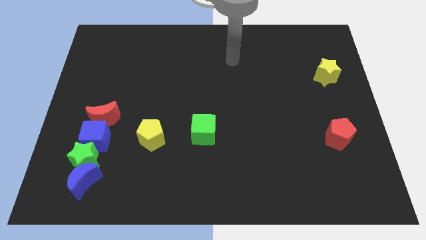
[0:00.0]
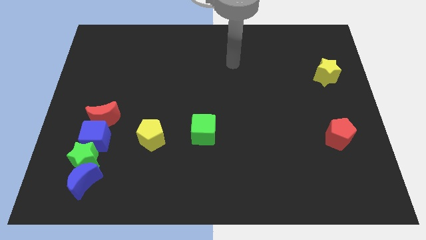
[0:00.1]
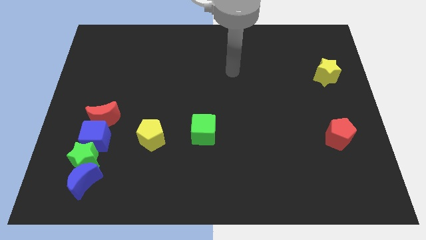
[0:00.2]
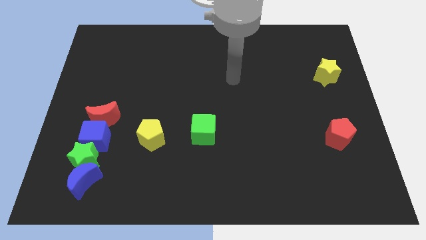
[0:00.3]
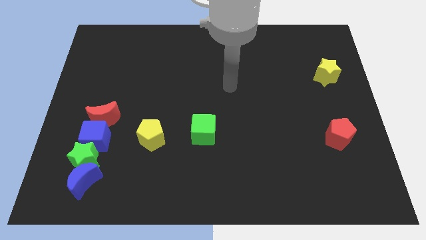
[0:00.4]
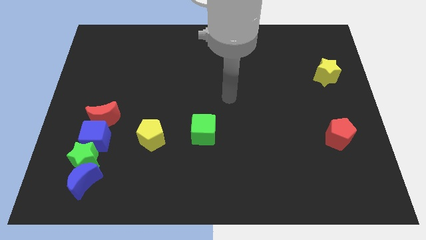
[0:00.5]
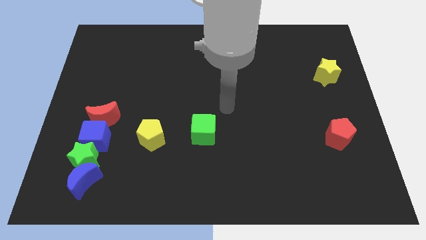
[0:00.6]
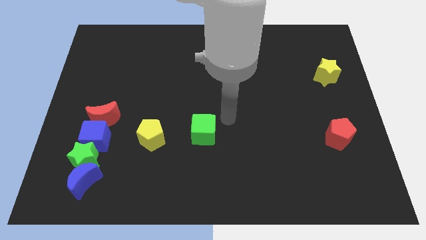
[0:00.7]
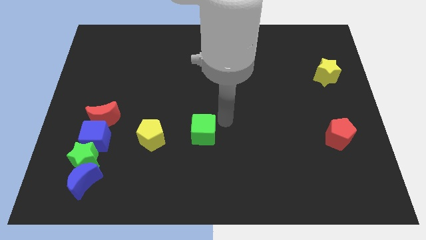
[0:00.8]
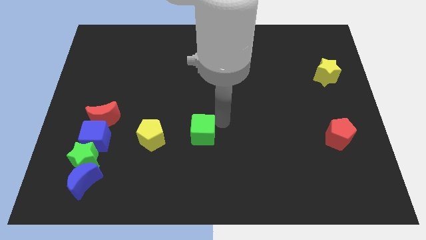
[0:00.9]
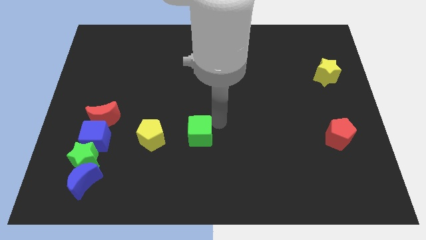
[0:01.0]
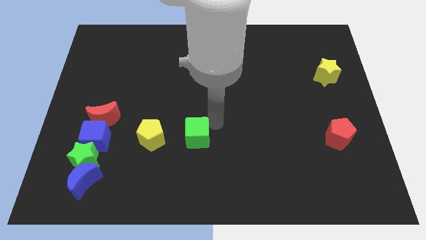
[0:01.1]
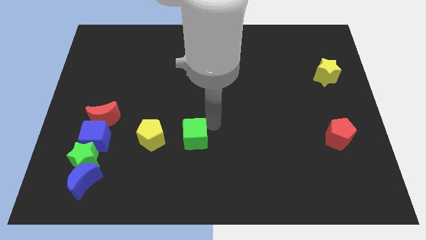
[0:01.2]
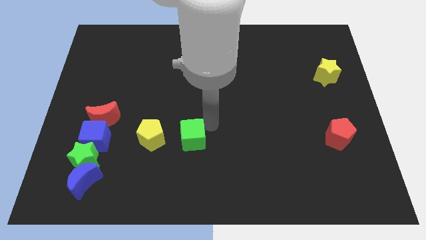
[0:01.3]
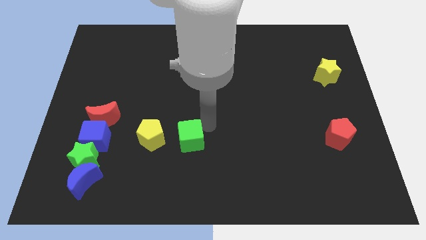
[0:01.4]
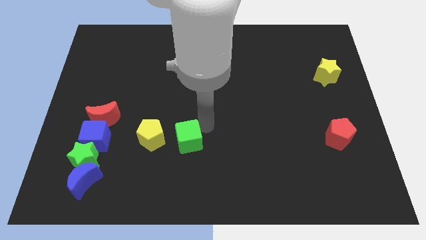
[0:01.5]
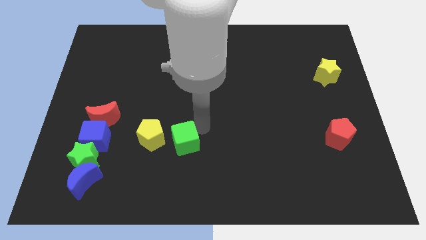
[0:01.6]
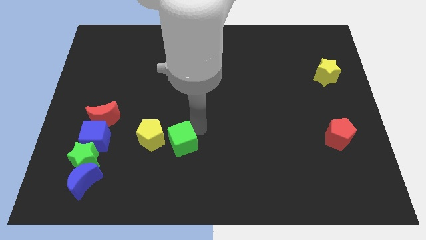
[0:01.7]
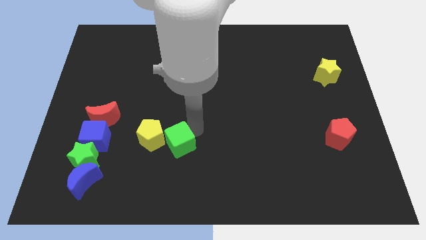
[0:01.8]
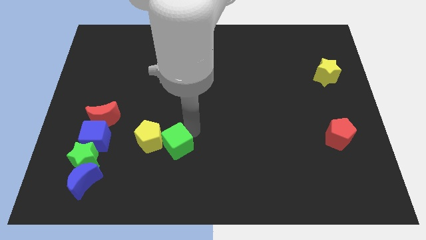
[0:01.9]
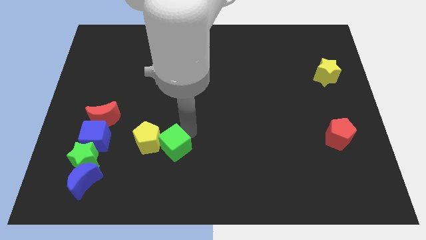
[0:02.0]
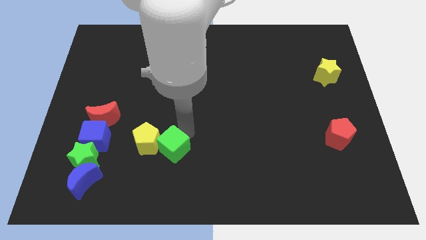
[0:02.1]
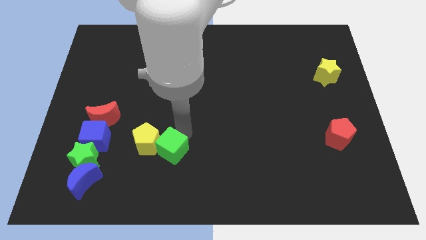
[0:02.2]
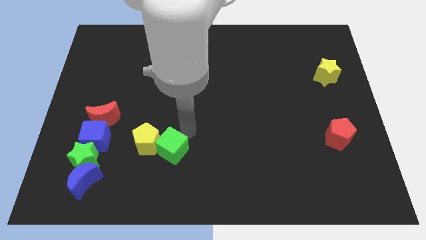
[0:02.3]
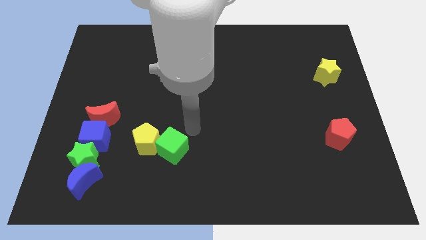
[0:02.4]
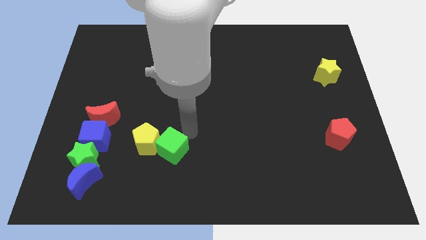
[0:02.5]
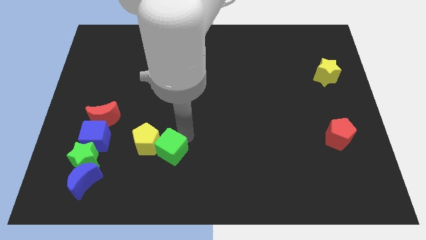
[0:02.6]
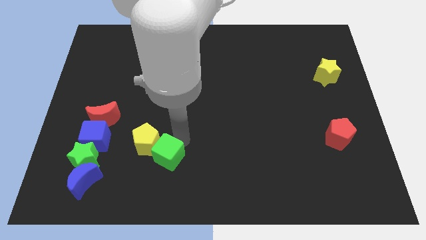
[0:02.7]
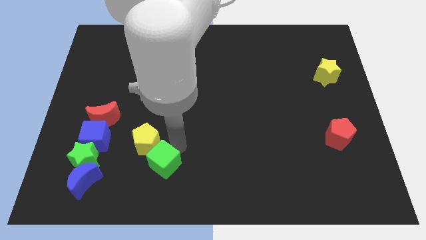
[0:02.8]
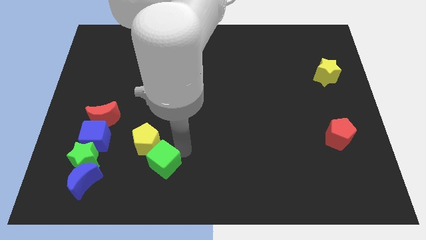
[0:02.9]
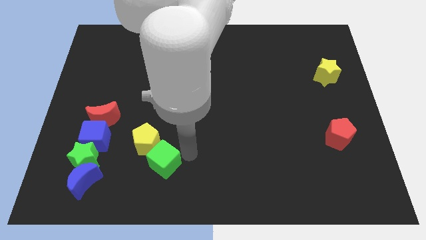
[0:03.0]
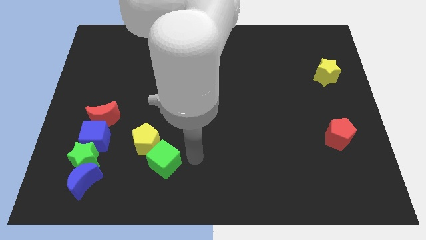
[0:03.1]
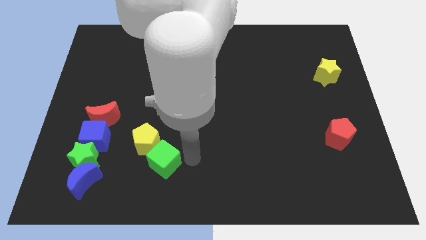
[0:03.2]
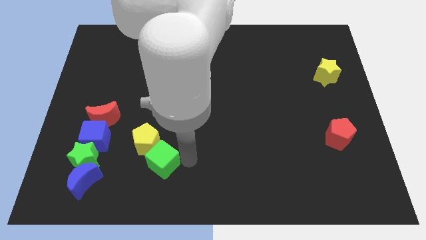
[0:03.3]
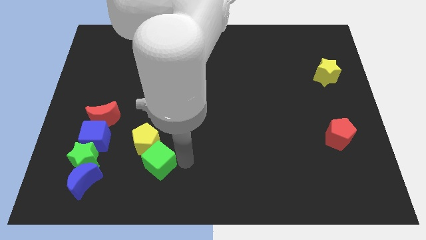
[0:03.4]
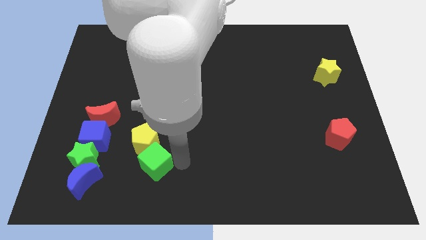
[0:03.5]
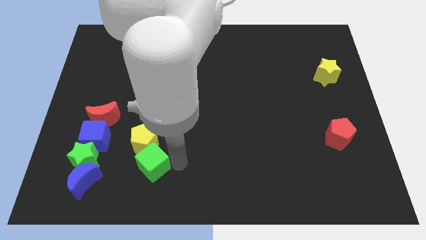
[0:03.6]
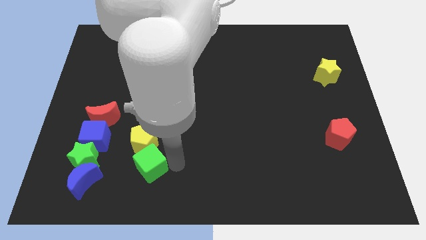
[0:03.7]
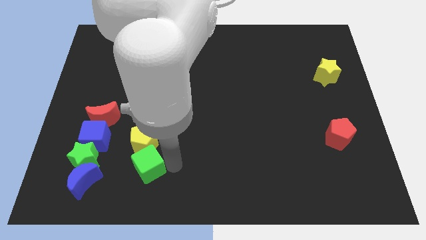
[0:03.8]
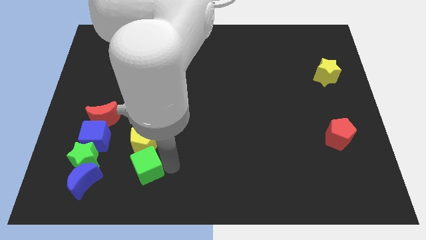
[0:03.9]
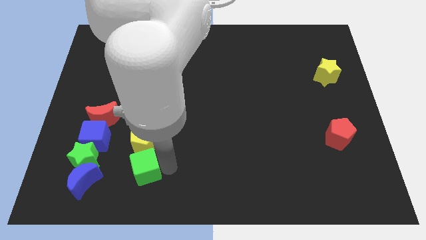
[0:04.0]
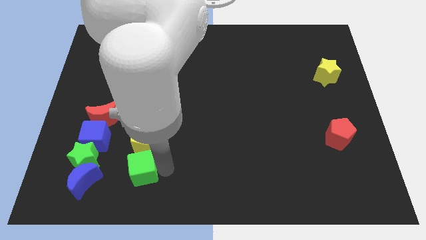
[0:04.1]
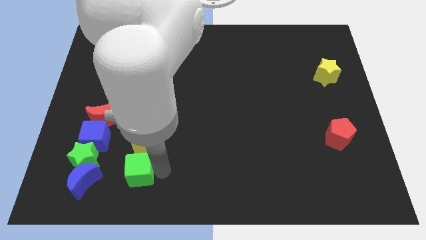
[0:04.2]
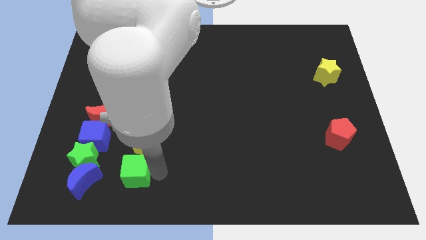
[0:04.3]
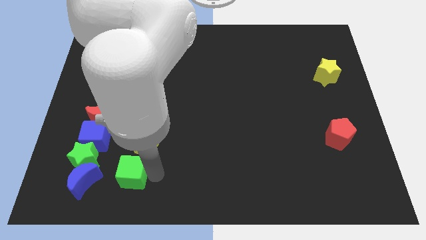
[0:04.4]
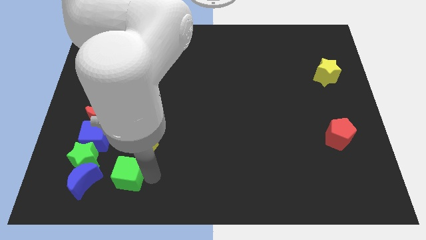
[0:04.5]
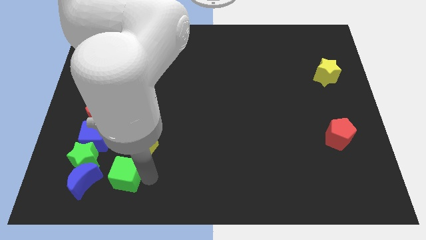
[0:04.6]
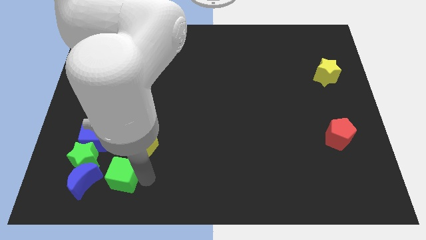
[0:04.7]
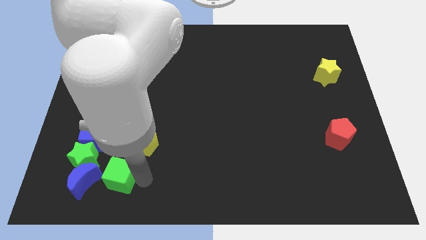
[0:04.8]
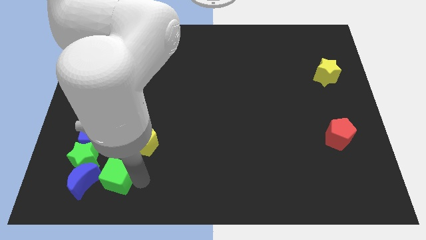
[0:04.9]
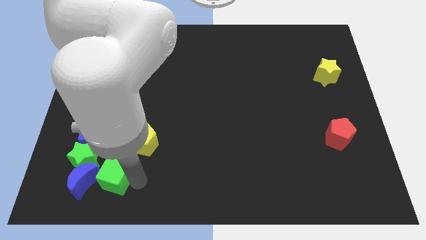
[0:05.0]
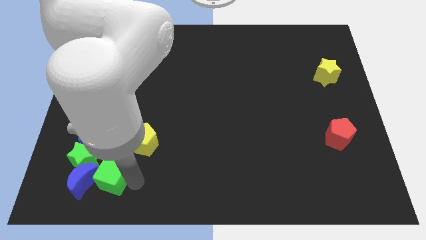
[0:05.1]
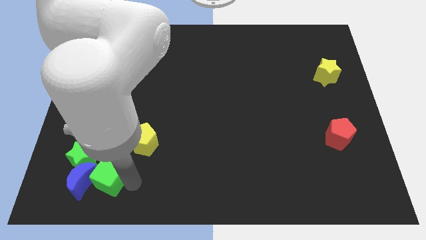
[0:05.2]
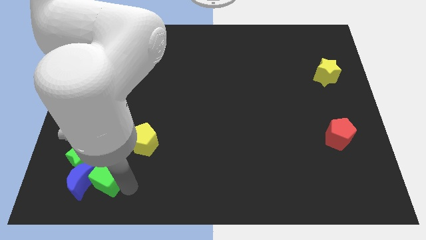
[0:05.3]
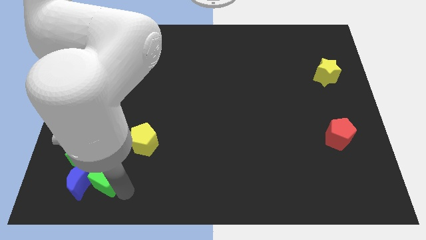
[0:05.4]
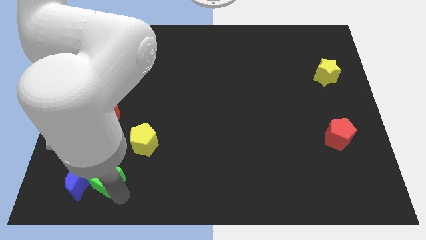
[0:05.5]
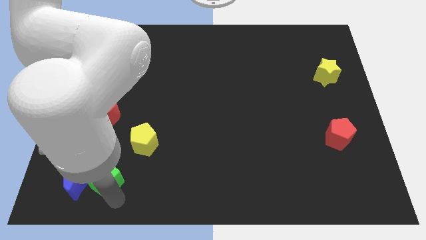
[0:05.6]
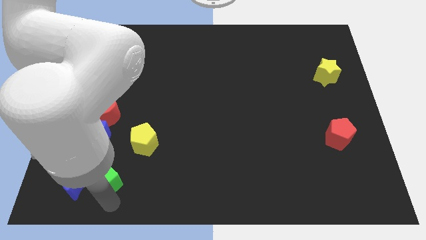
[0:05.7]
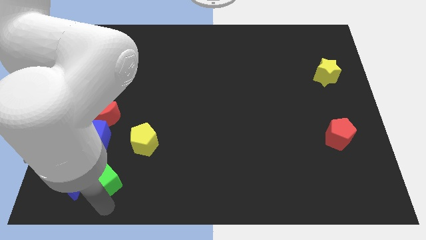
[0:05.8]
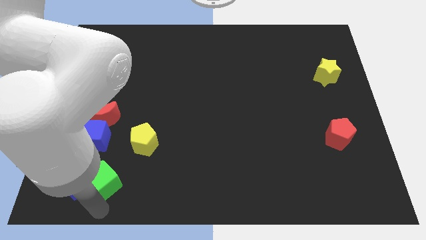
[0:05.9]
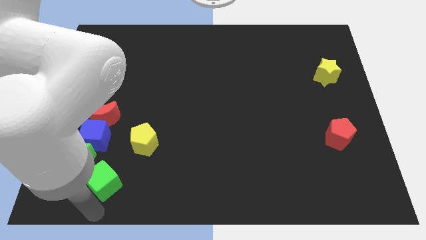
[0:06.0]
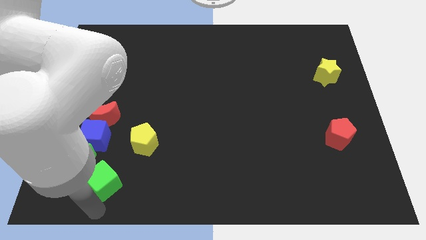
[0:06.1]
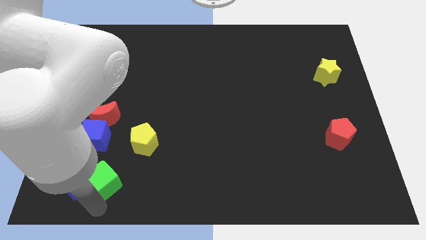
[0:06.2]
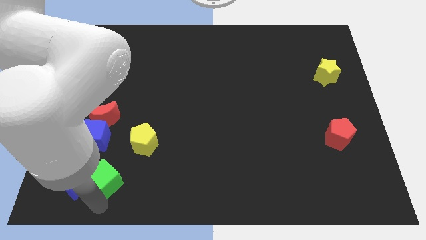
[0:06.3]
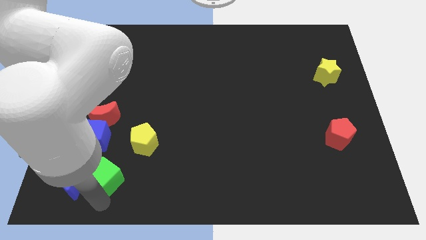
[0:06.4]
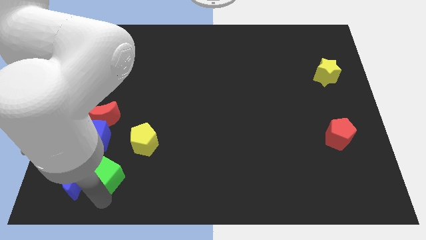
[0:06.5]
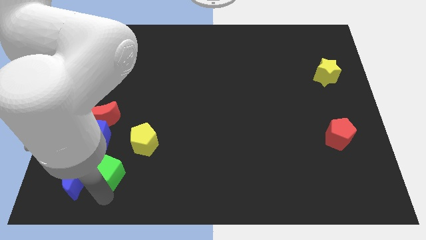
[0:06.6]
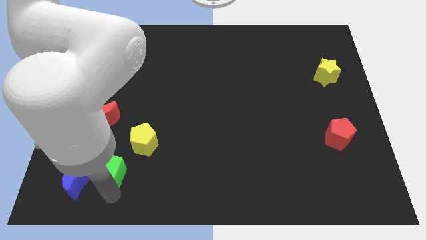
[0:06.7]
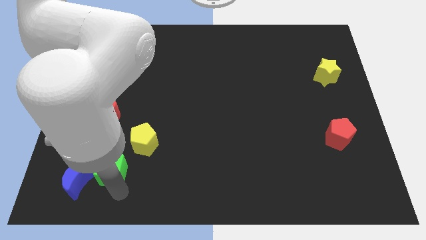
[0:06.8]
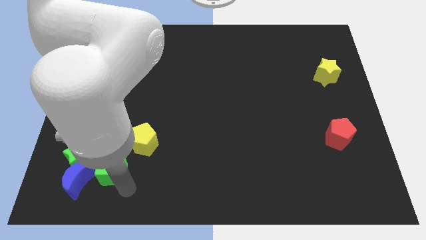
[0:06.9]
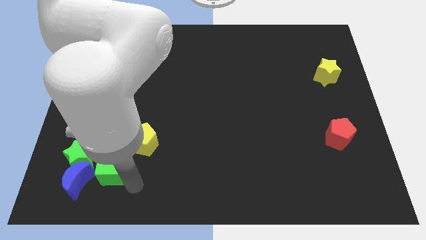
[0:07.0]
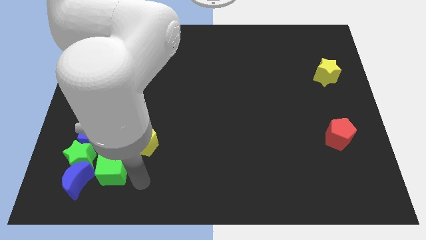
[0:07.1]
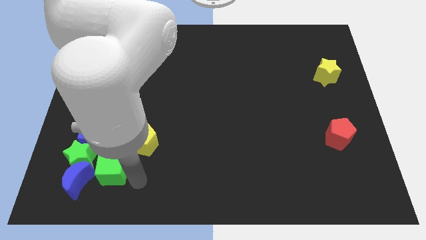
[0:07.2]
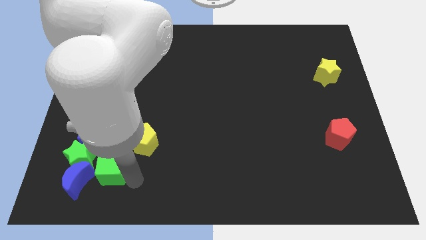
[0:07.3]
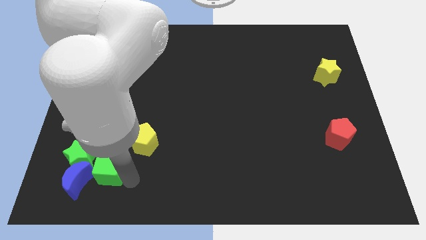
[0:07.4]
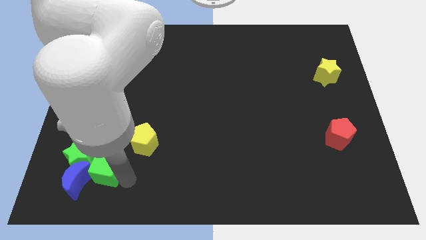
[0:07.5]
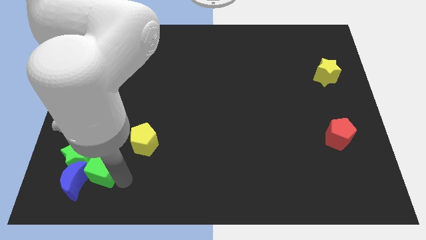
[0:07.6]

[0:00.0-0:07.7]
push the green cube next to the green star
